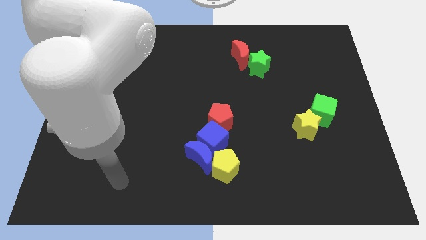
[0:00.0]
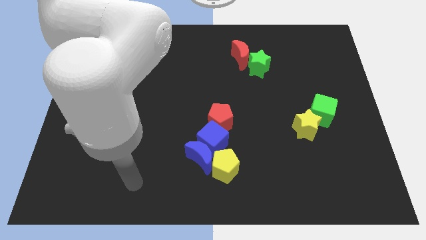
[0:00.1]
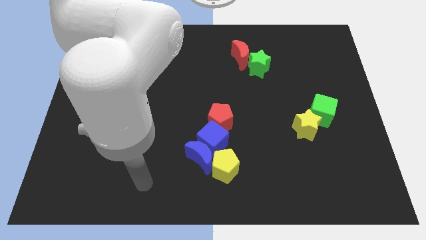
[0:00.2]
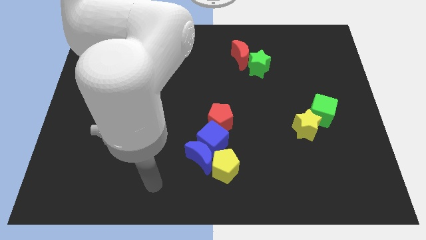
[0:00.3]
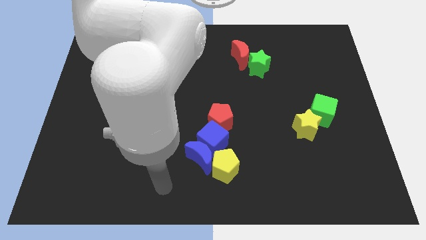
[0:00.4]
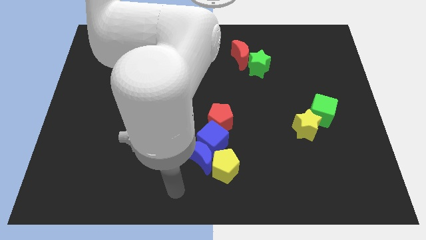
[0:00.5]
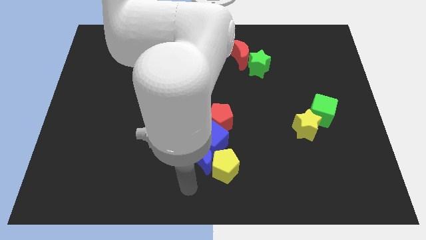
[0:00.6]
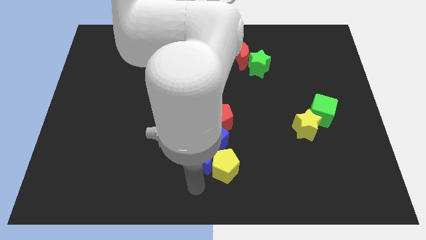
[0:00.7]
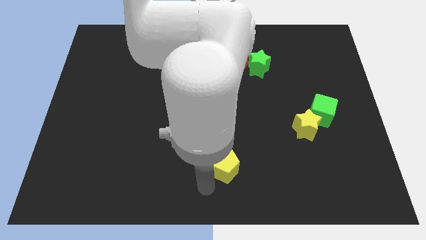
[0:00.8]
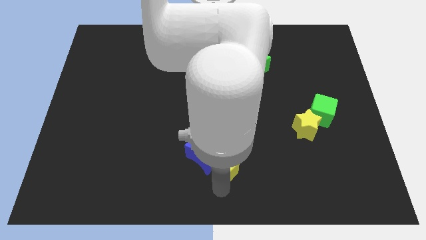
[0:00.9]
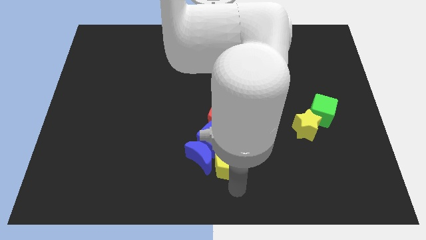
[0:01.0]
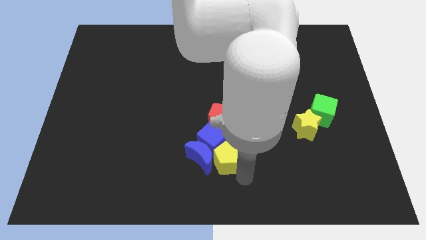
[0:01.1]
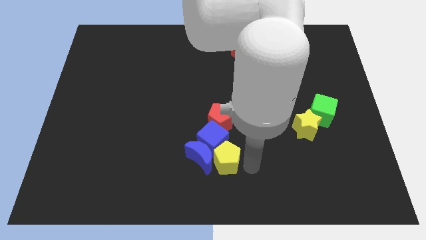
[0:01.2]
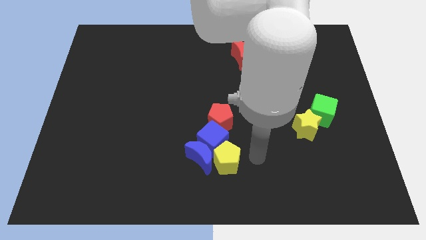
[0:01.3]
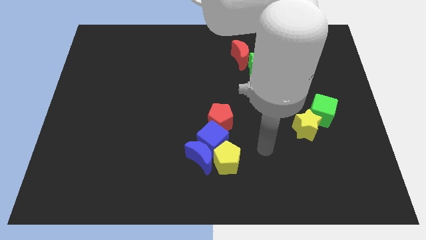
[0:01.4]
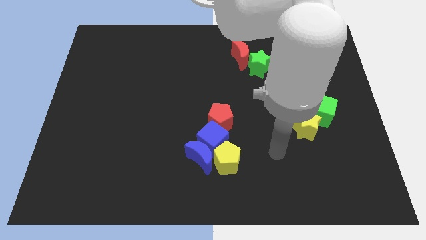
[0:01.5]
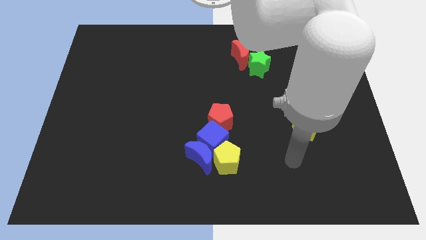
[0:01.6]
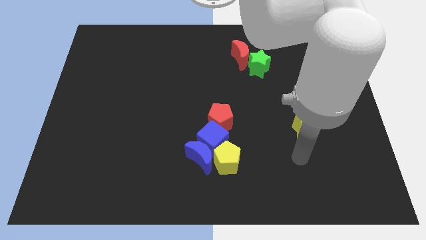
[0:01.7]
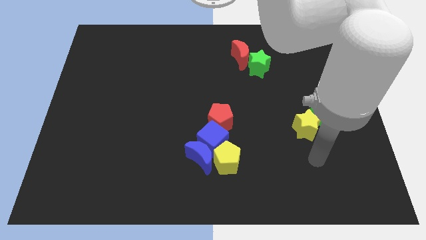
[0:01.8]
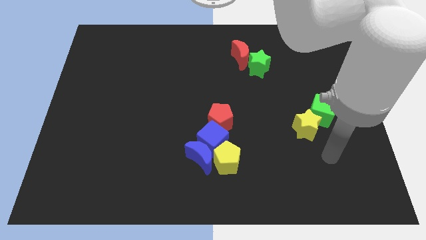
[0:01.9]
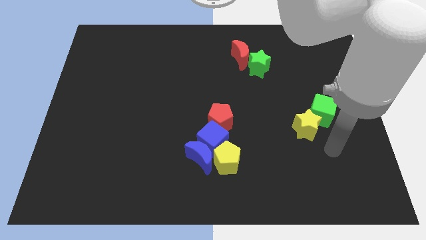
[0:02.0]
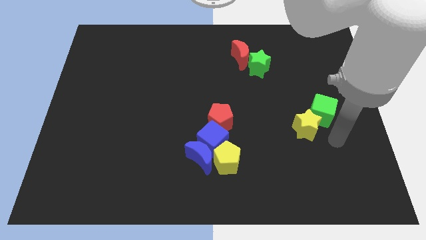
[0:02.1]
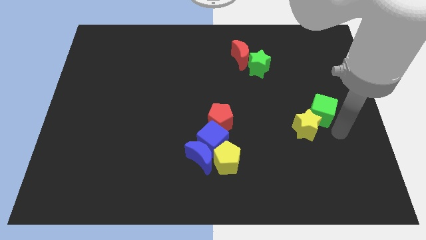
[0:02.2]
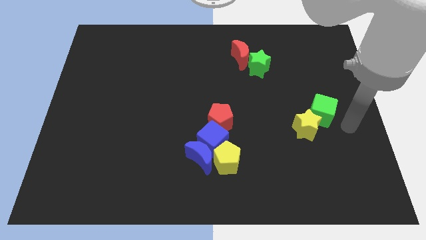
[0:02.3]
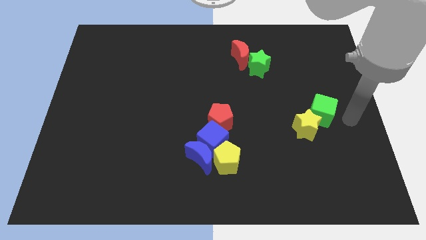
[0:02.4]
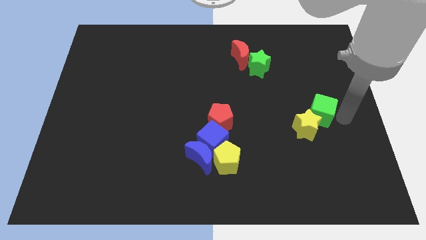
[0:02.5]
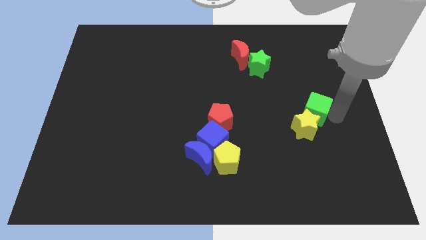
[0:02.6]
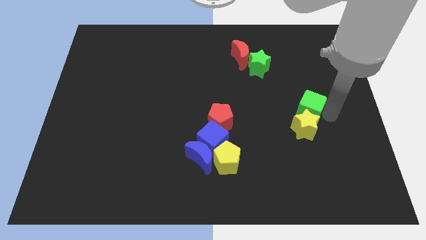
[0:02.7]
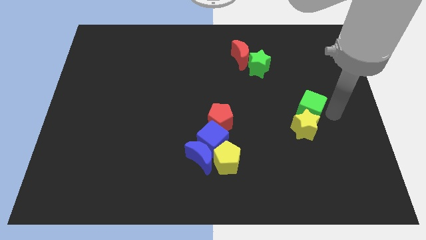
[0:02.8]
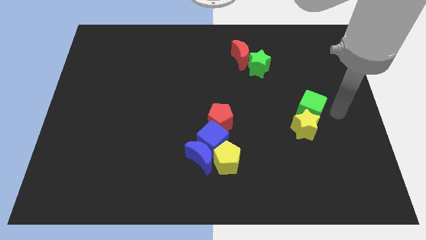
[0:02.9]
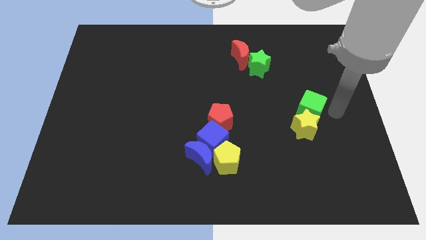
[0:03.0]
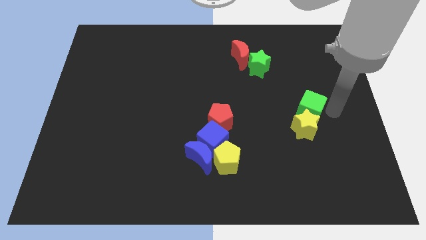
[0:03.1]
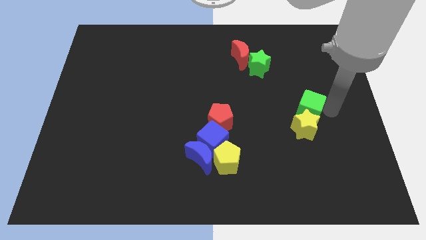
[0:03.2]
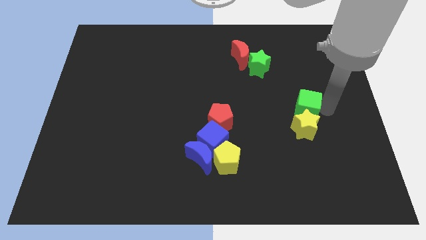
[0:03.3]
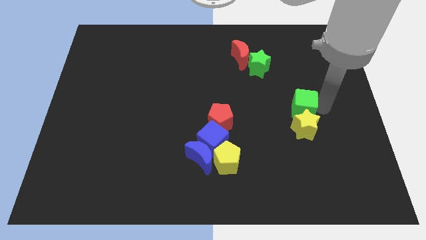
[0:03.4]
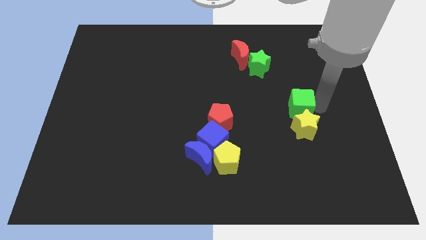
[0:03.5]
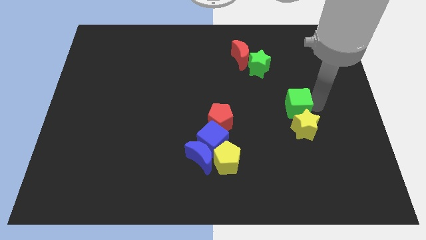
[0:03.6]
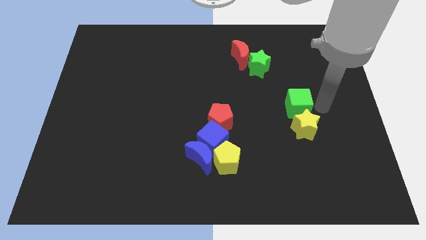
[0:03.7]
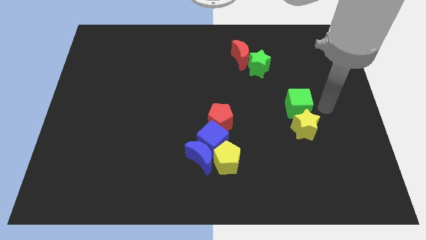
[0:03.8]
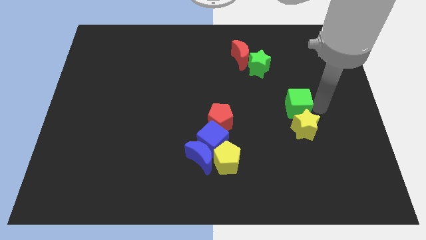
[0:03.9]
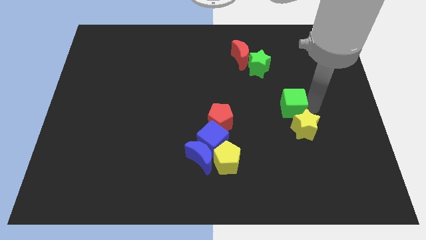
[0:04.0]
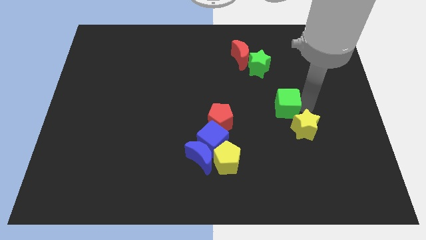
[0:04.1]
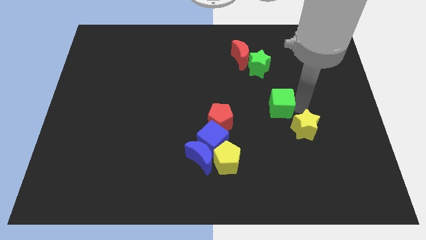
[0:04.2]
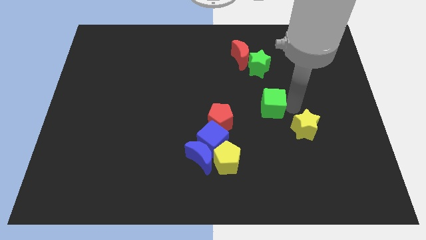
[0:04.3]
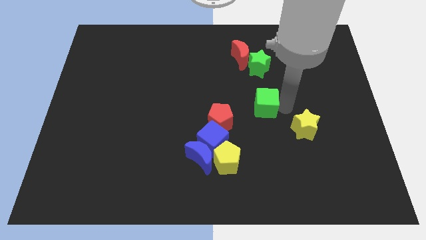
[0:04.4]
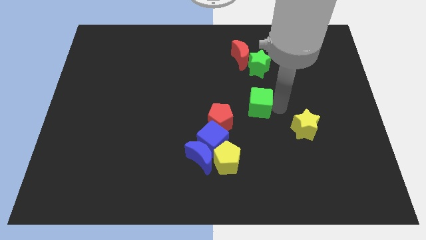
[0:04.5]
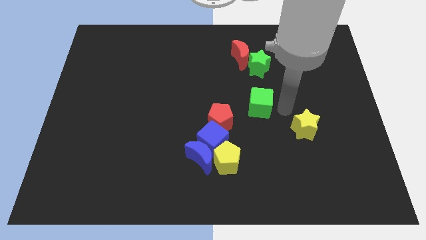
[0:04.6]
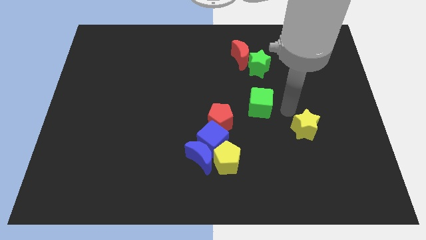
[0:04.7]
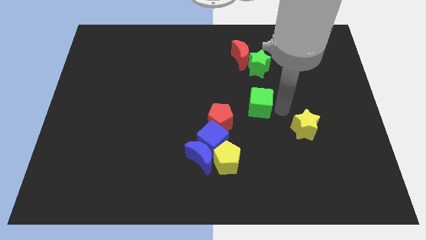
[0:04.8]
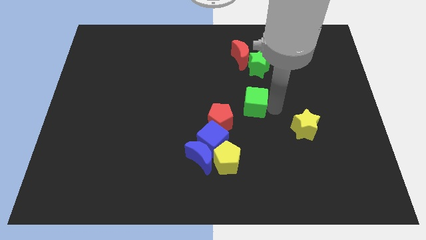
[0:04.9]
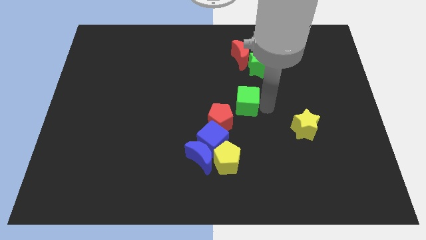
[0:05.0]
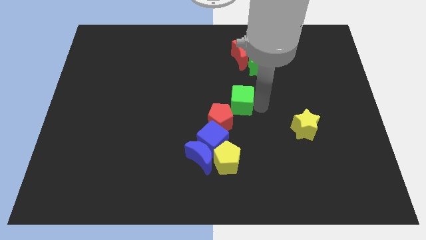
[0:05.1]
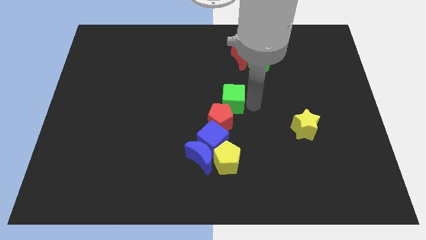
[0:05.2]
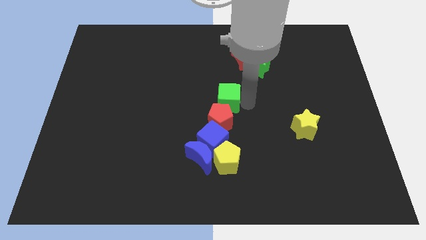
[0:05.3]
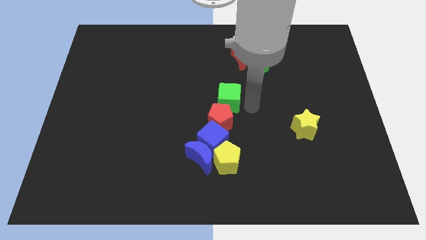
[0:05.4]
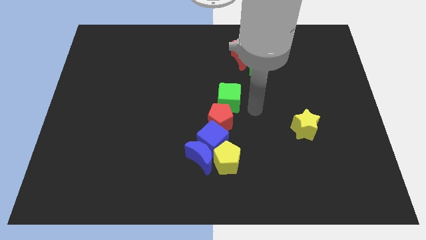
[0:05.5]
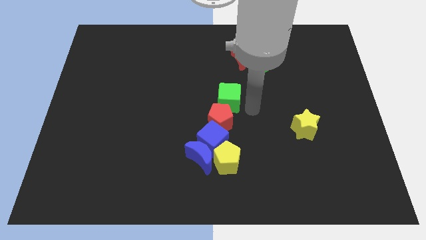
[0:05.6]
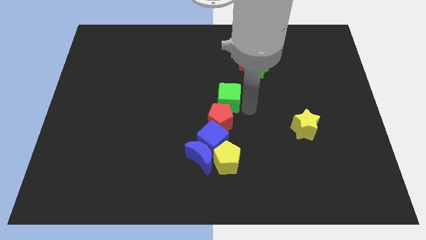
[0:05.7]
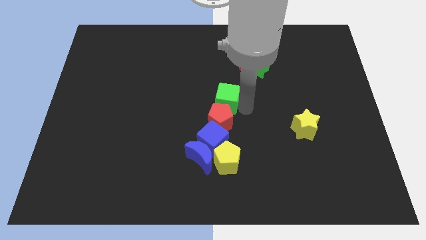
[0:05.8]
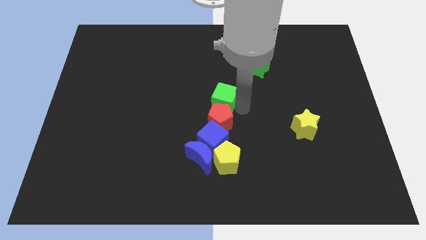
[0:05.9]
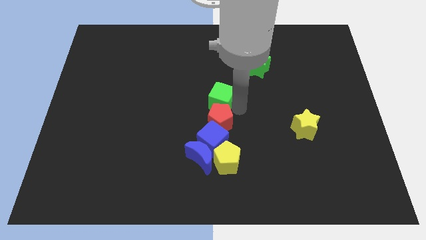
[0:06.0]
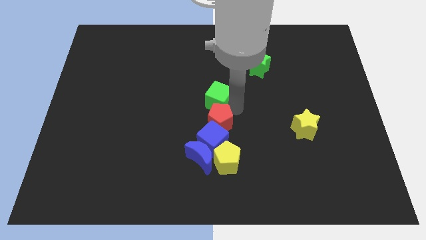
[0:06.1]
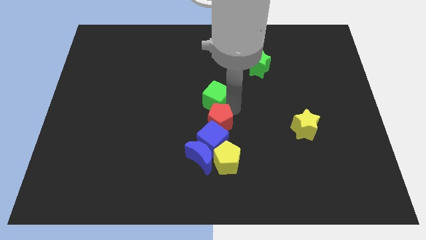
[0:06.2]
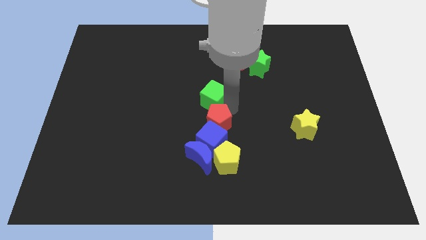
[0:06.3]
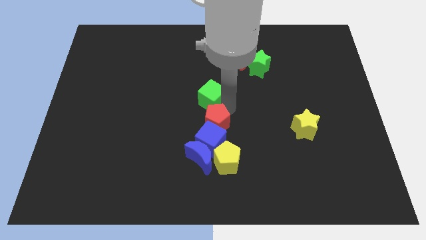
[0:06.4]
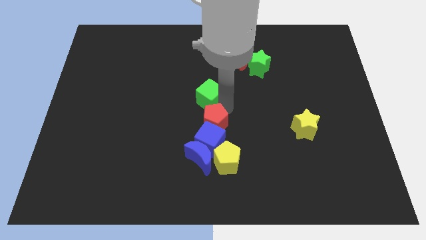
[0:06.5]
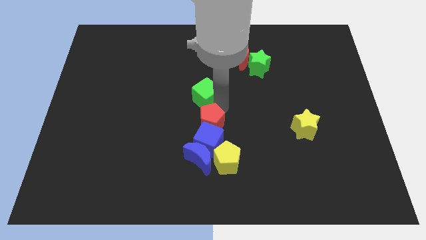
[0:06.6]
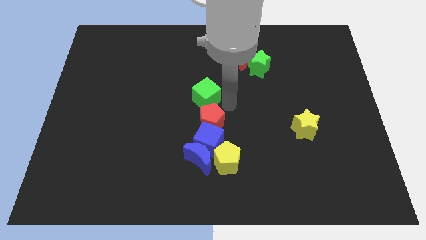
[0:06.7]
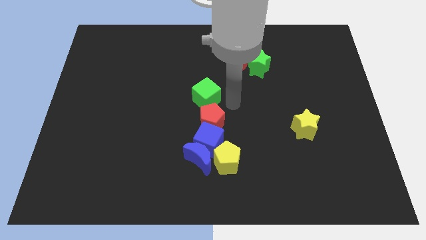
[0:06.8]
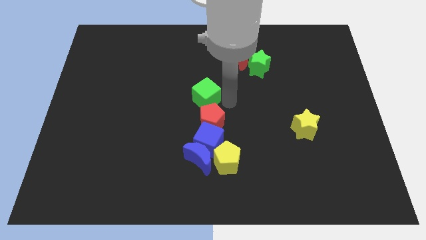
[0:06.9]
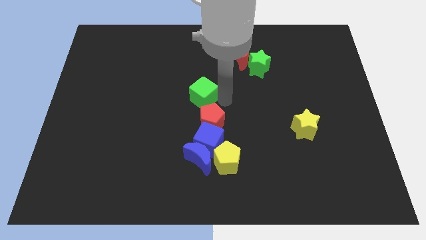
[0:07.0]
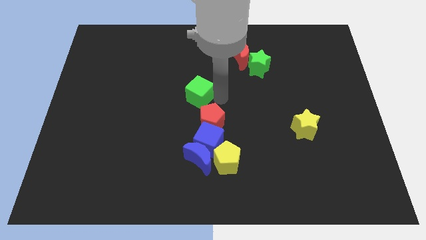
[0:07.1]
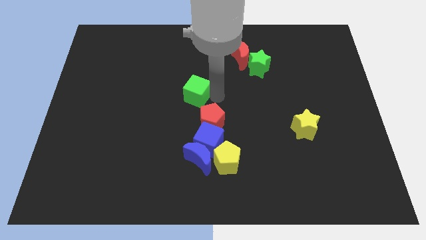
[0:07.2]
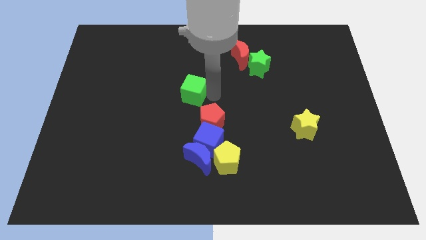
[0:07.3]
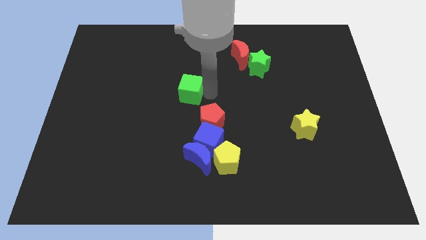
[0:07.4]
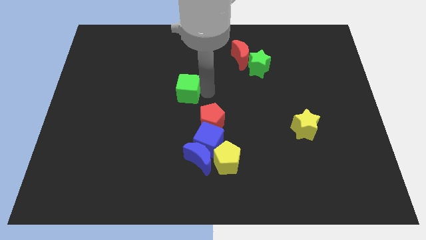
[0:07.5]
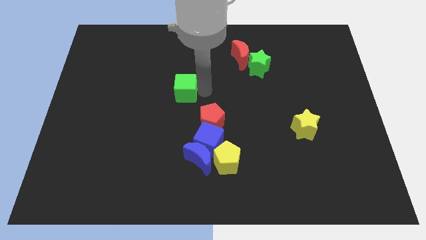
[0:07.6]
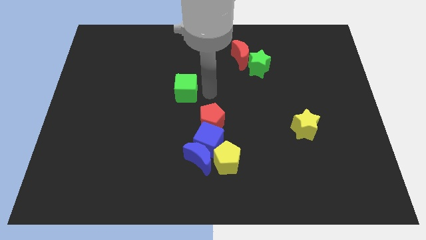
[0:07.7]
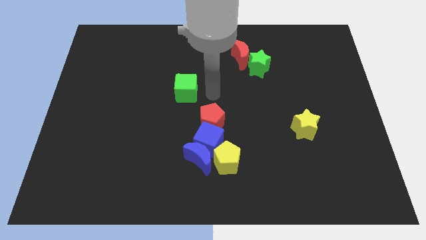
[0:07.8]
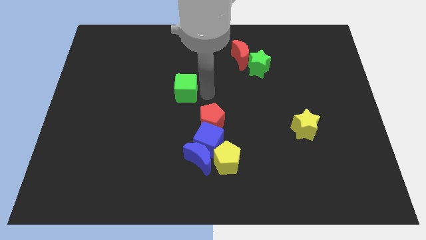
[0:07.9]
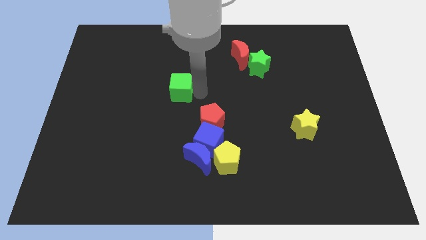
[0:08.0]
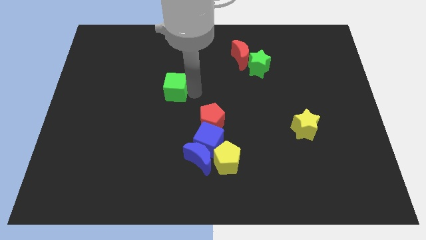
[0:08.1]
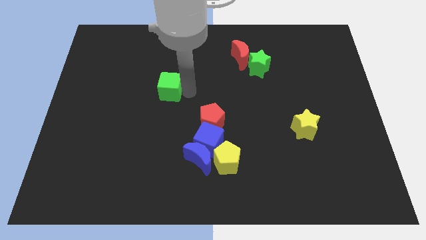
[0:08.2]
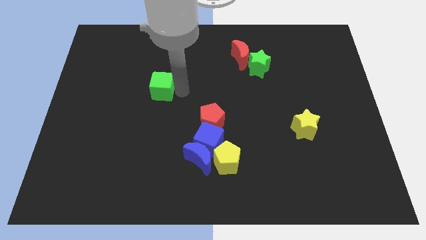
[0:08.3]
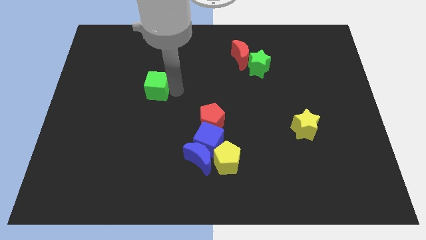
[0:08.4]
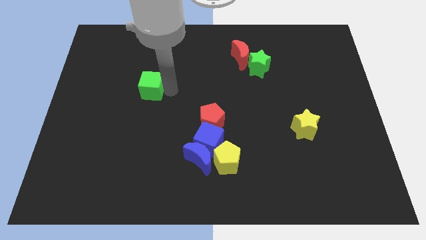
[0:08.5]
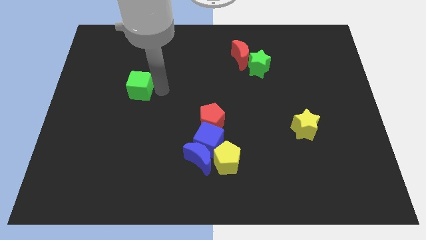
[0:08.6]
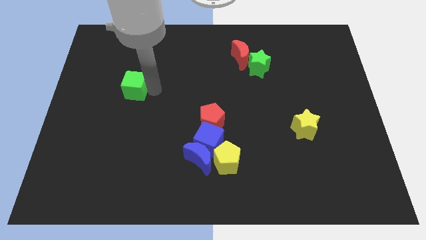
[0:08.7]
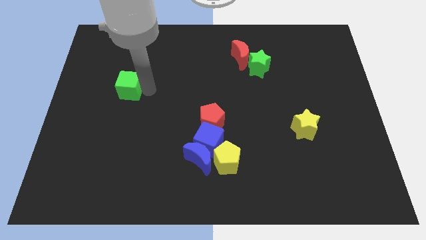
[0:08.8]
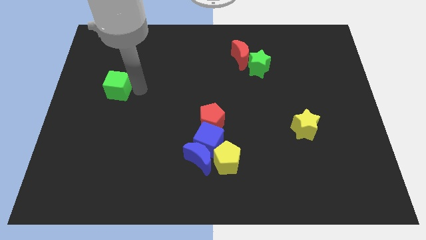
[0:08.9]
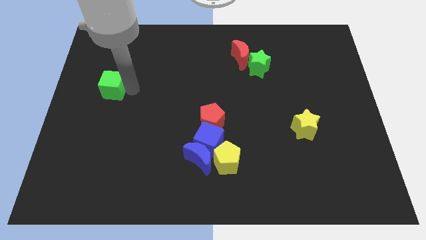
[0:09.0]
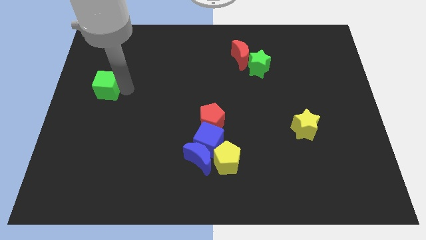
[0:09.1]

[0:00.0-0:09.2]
push the green cube to the left side of the board
